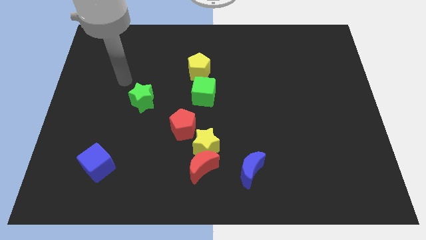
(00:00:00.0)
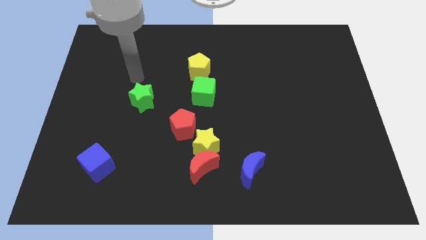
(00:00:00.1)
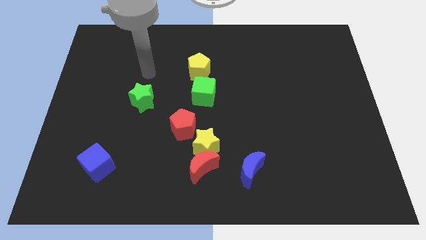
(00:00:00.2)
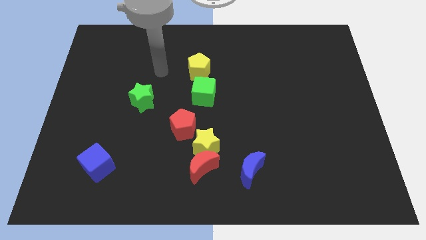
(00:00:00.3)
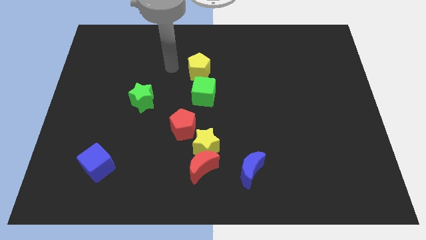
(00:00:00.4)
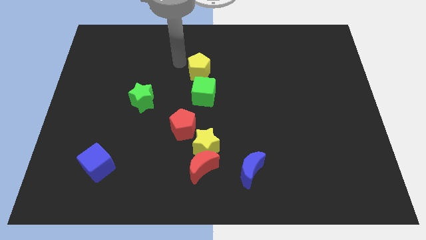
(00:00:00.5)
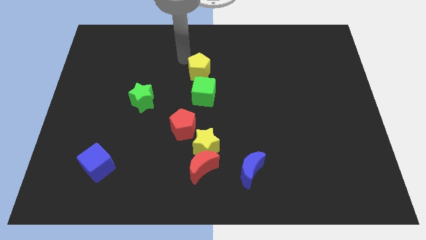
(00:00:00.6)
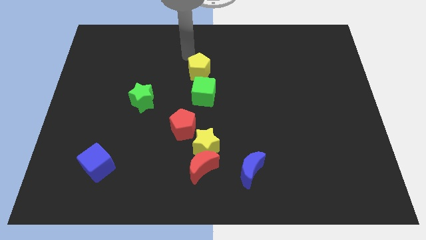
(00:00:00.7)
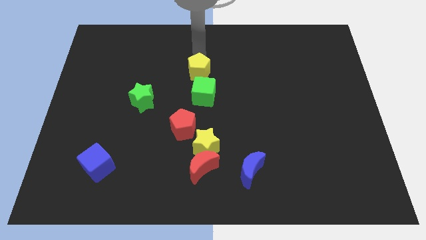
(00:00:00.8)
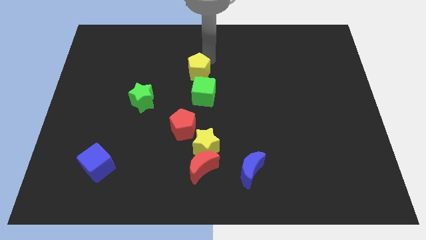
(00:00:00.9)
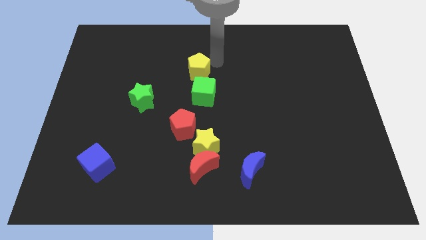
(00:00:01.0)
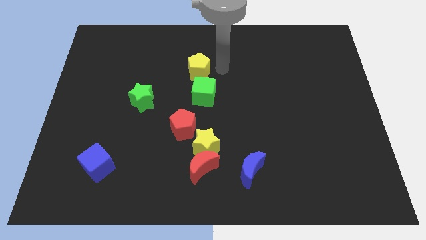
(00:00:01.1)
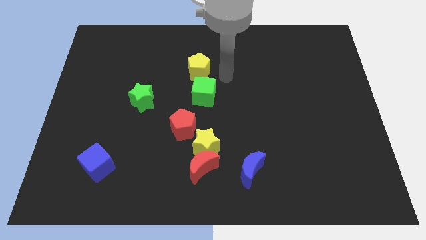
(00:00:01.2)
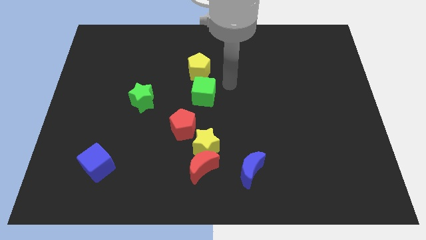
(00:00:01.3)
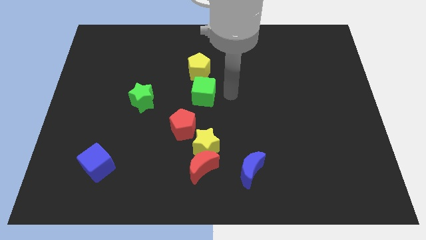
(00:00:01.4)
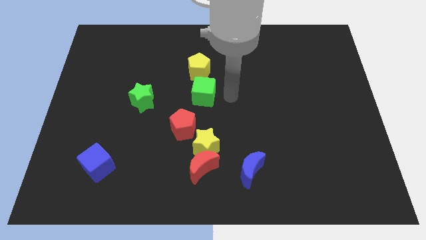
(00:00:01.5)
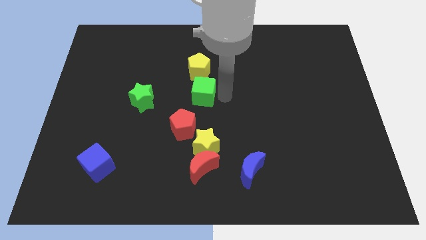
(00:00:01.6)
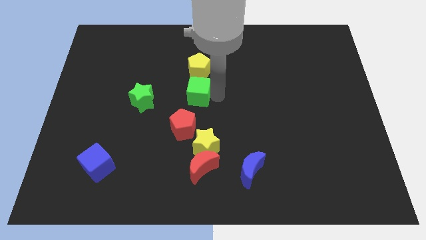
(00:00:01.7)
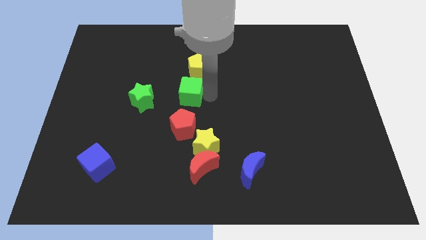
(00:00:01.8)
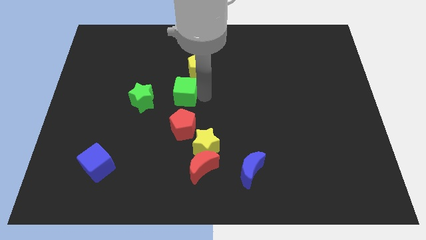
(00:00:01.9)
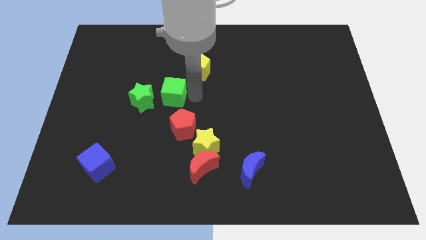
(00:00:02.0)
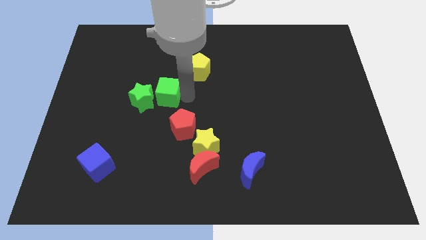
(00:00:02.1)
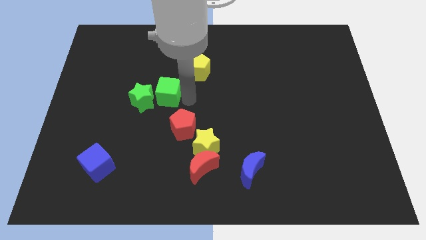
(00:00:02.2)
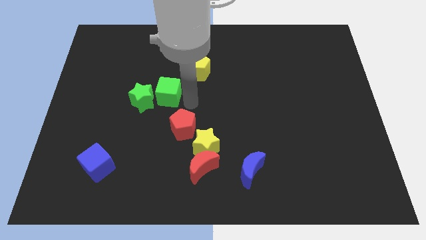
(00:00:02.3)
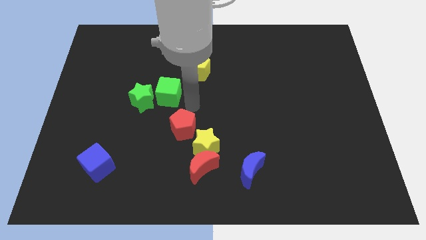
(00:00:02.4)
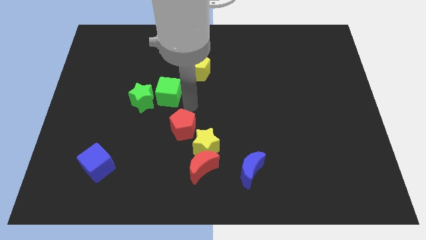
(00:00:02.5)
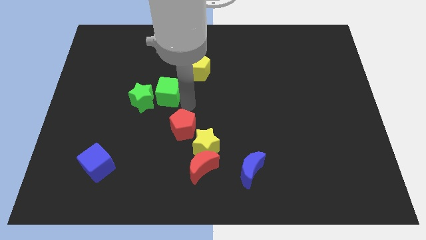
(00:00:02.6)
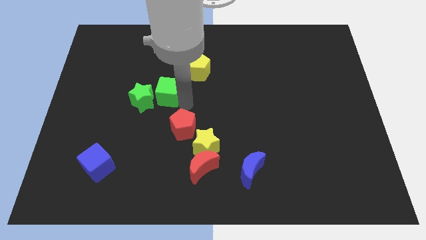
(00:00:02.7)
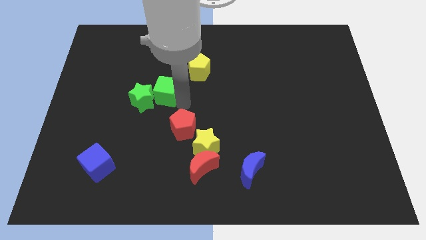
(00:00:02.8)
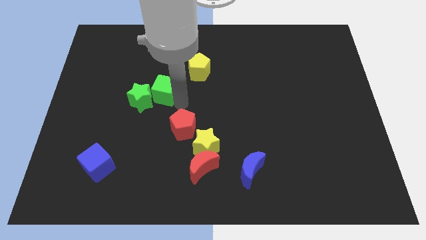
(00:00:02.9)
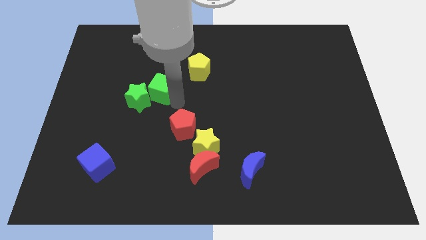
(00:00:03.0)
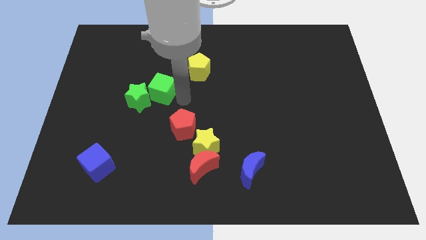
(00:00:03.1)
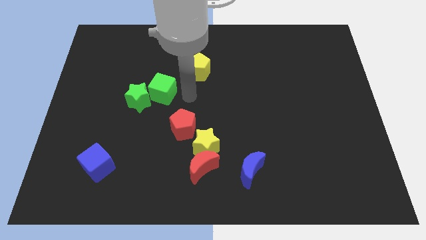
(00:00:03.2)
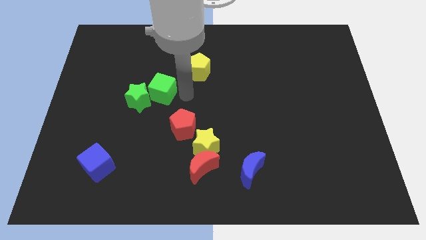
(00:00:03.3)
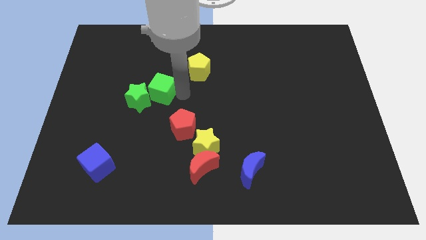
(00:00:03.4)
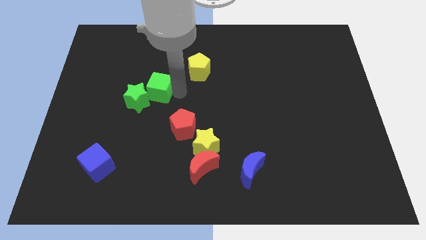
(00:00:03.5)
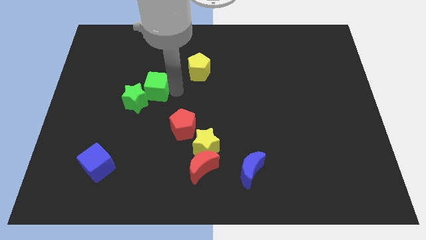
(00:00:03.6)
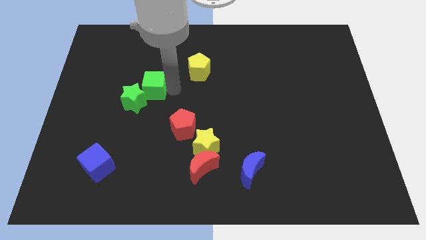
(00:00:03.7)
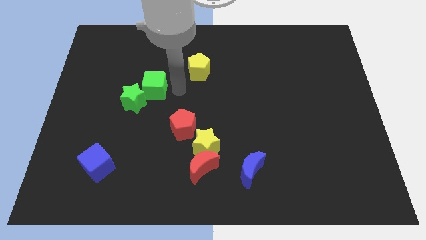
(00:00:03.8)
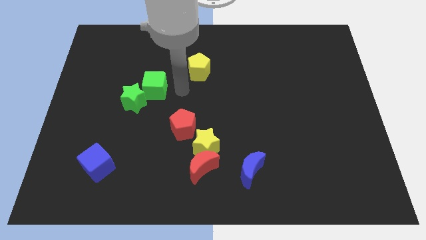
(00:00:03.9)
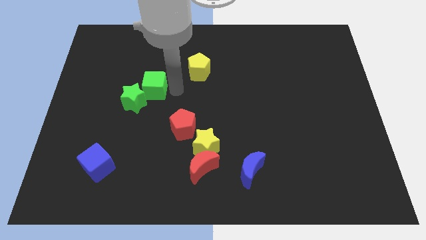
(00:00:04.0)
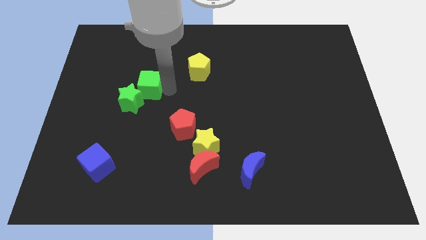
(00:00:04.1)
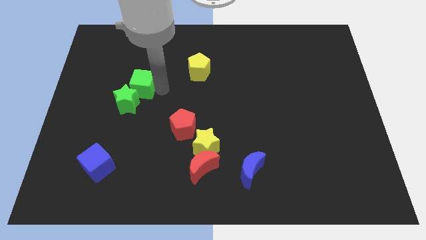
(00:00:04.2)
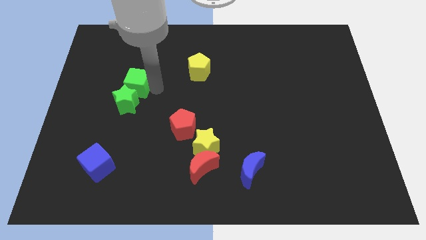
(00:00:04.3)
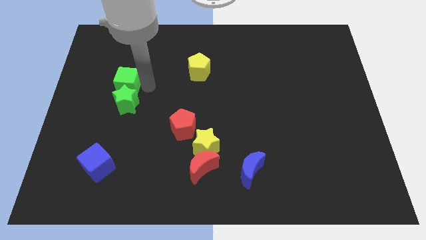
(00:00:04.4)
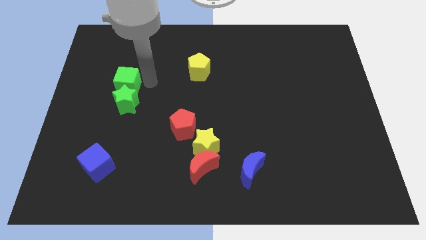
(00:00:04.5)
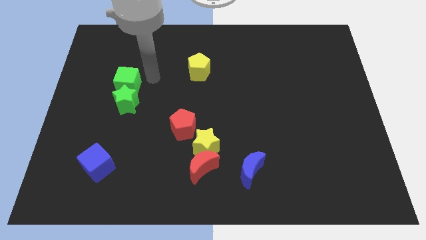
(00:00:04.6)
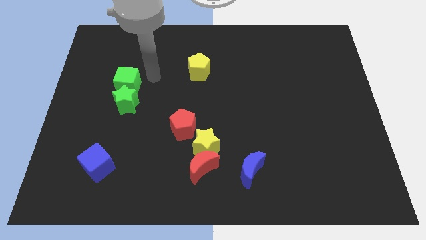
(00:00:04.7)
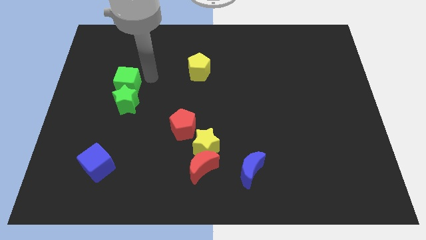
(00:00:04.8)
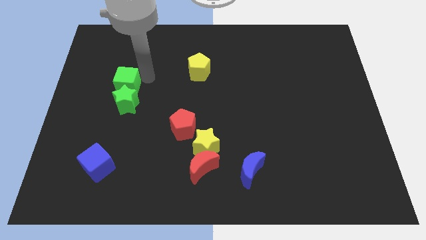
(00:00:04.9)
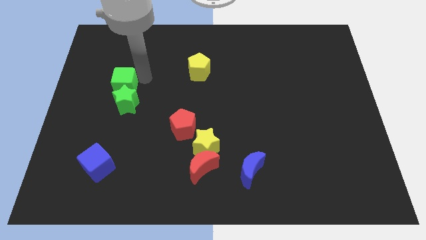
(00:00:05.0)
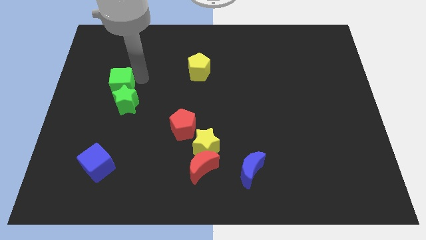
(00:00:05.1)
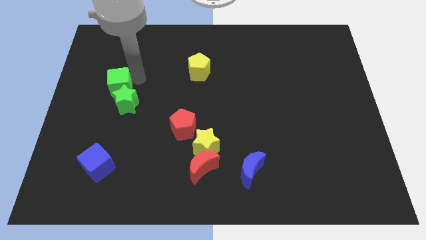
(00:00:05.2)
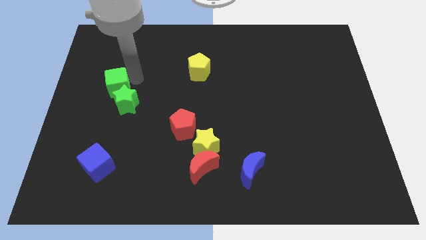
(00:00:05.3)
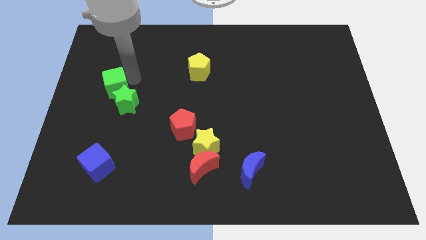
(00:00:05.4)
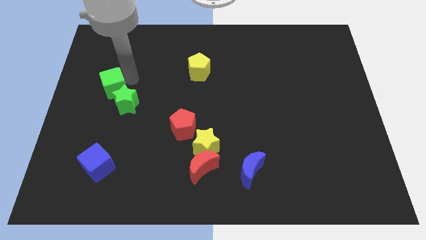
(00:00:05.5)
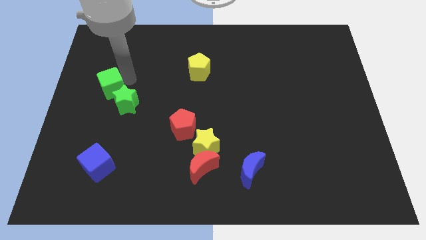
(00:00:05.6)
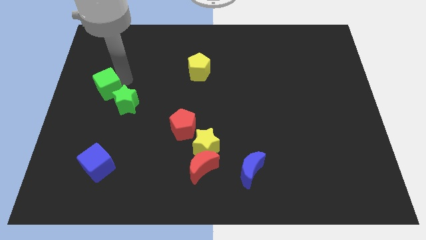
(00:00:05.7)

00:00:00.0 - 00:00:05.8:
slide the green cube to the center left

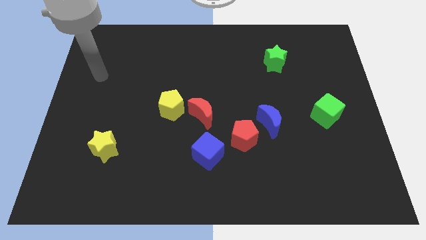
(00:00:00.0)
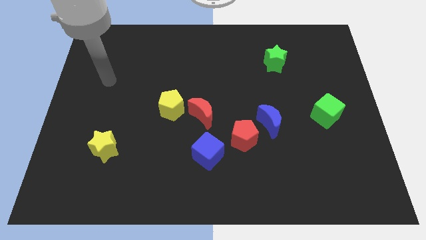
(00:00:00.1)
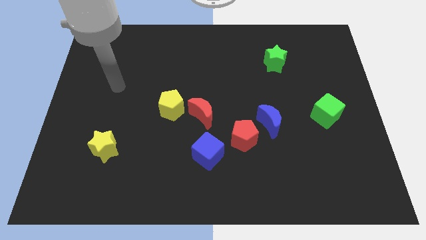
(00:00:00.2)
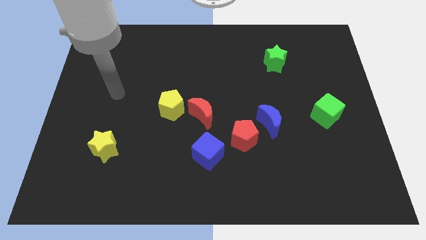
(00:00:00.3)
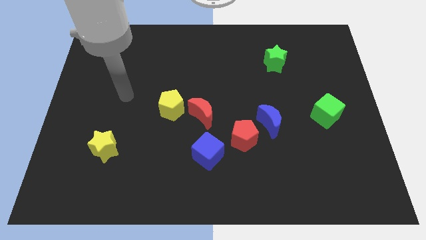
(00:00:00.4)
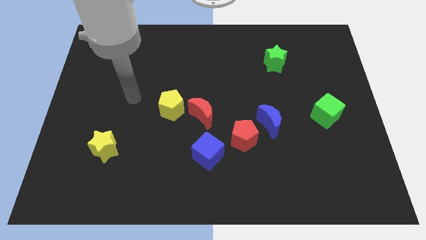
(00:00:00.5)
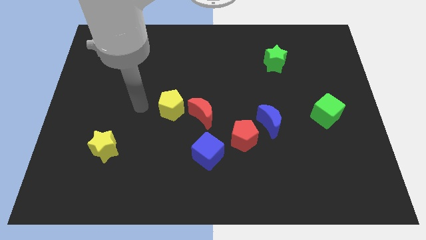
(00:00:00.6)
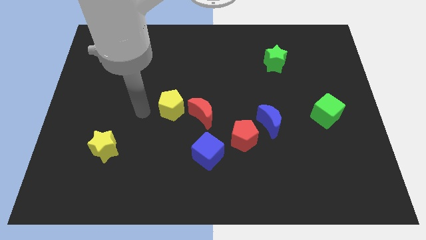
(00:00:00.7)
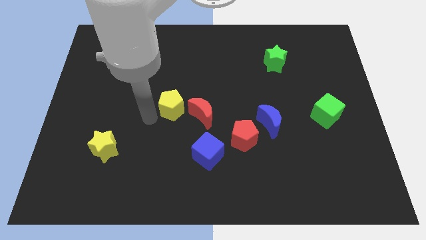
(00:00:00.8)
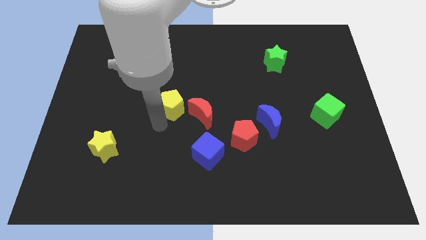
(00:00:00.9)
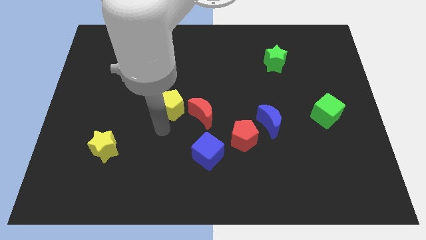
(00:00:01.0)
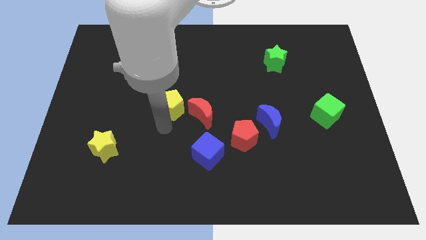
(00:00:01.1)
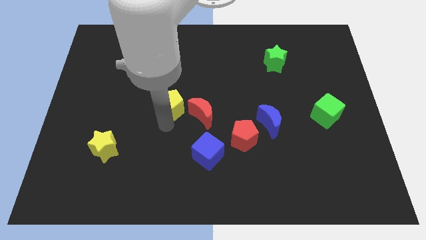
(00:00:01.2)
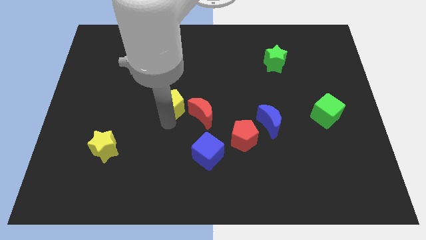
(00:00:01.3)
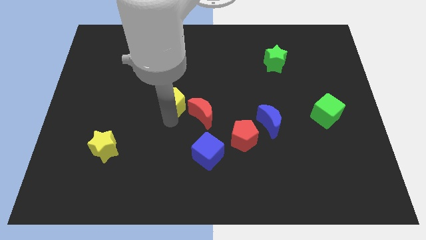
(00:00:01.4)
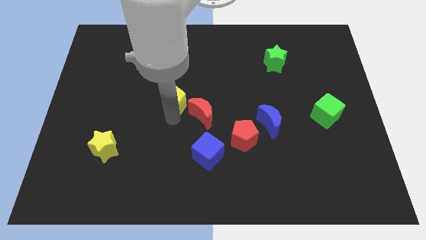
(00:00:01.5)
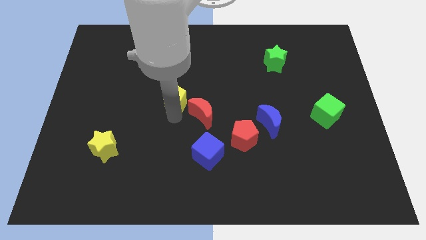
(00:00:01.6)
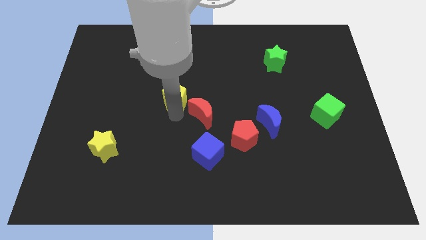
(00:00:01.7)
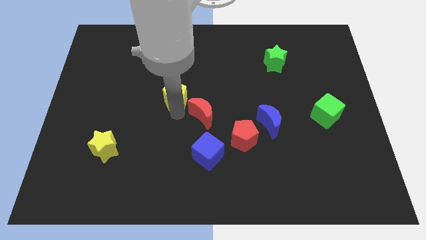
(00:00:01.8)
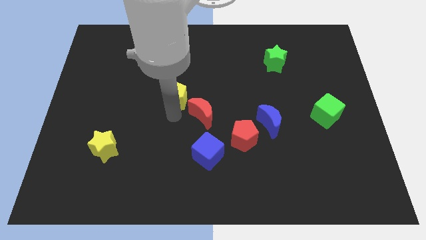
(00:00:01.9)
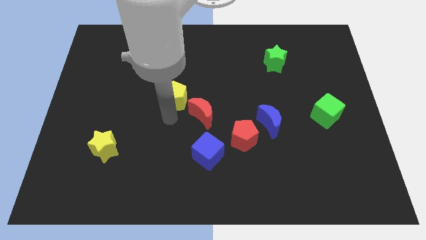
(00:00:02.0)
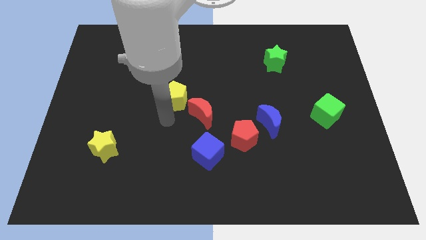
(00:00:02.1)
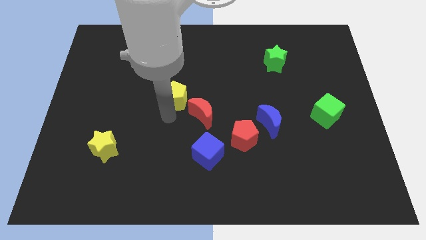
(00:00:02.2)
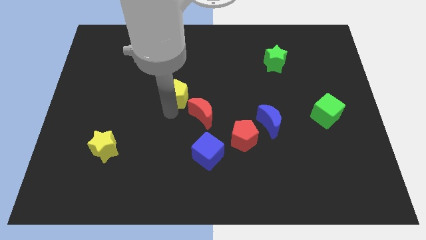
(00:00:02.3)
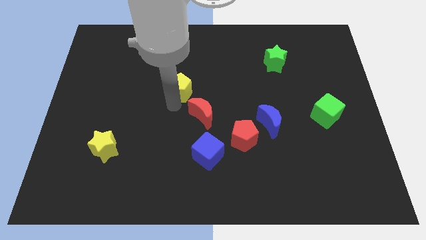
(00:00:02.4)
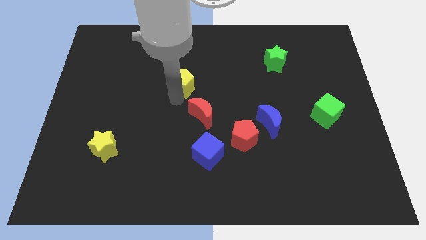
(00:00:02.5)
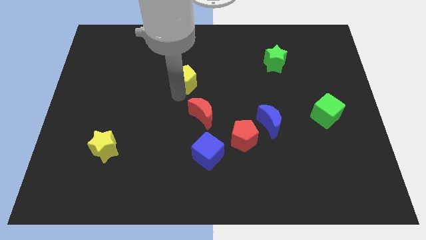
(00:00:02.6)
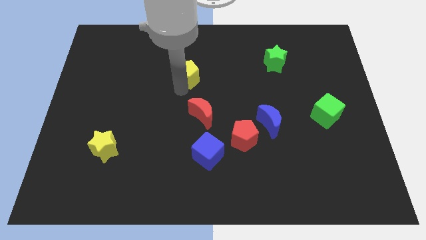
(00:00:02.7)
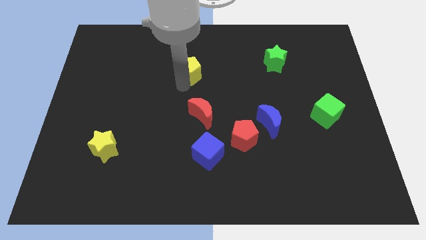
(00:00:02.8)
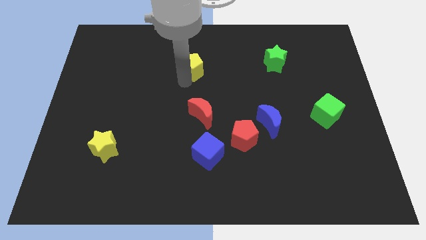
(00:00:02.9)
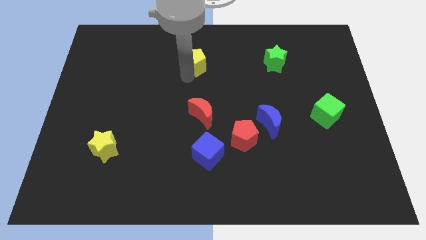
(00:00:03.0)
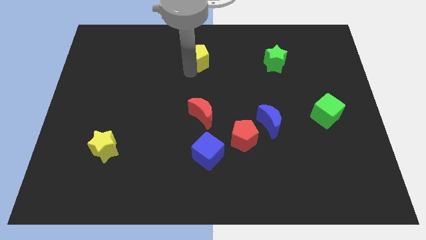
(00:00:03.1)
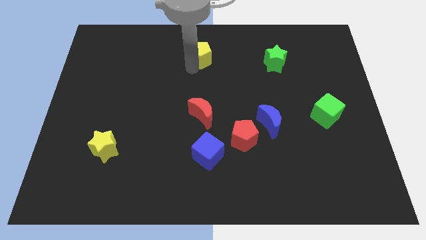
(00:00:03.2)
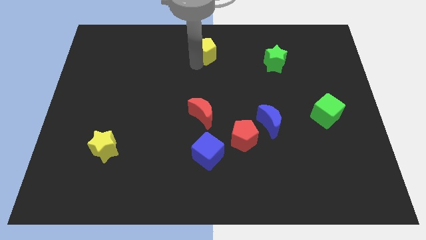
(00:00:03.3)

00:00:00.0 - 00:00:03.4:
push the yellow pentagon to the top side
